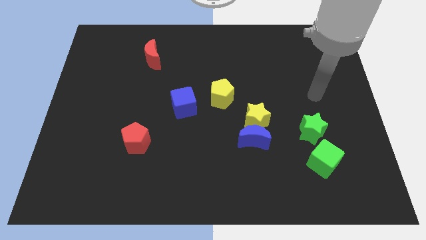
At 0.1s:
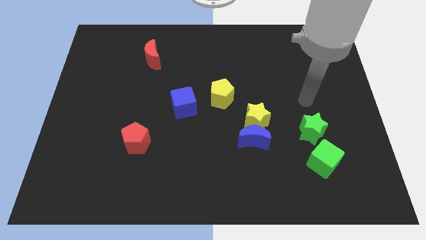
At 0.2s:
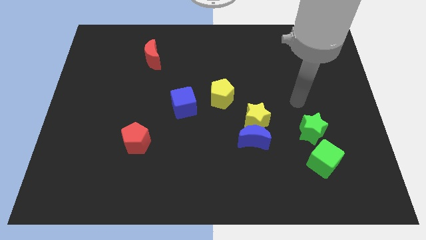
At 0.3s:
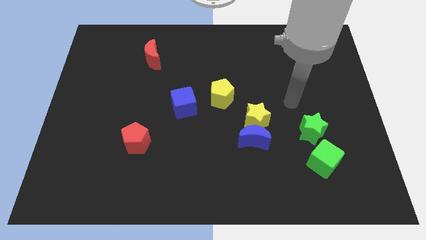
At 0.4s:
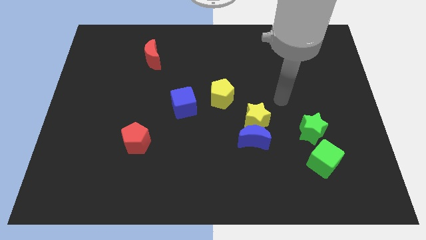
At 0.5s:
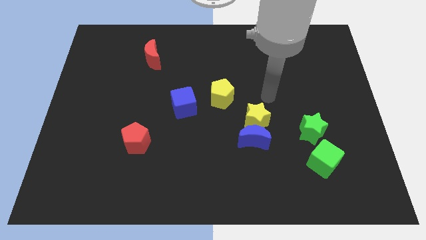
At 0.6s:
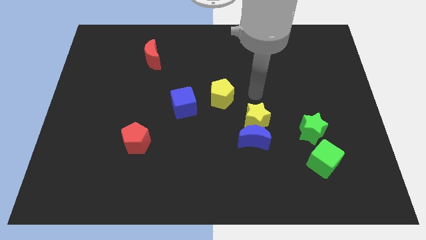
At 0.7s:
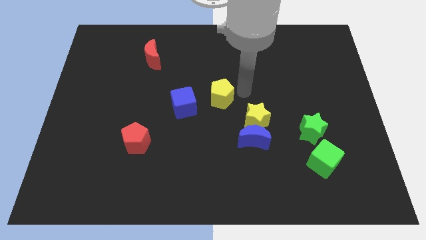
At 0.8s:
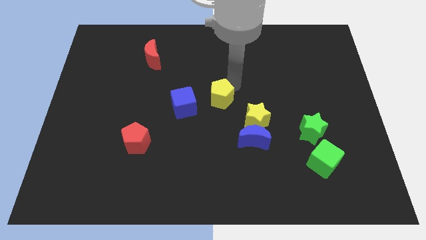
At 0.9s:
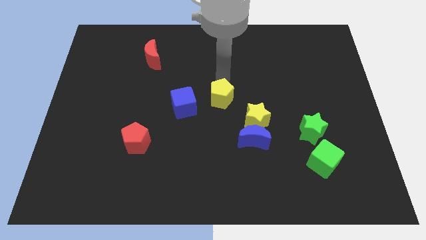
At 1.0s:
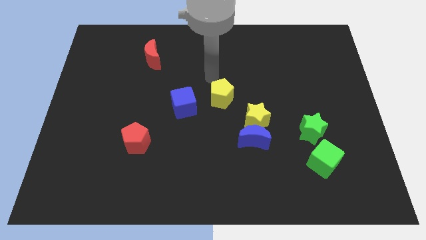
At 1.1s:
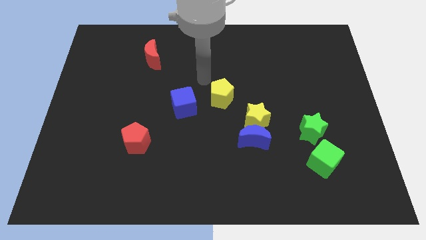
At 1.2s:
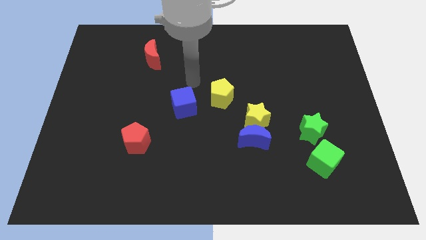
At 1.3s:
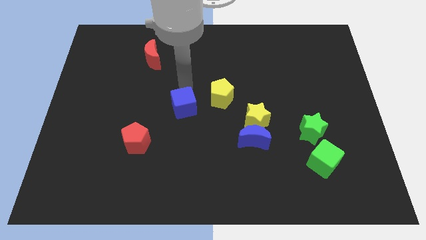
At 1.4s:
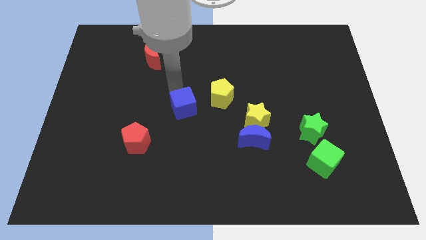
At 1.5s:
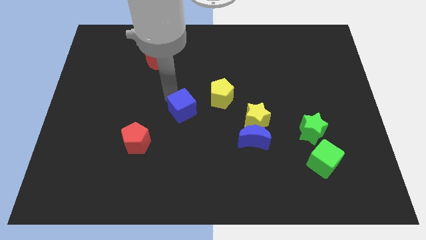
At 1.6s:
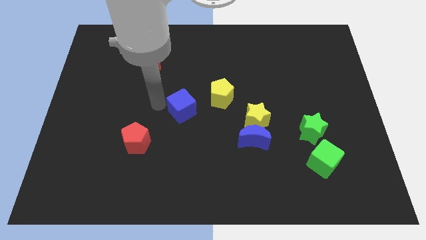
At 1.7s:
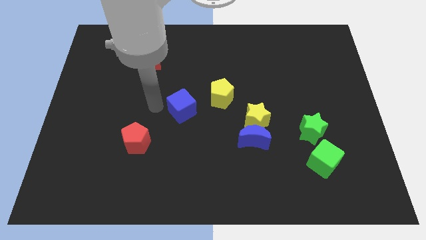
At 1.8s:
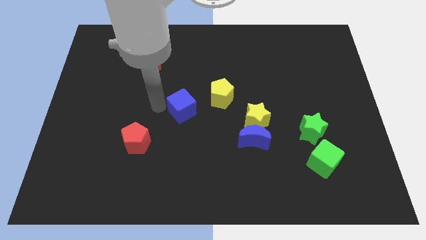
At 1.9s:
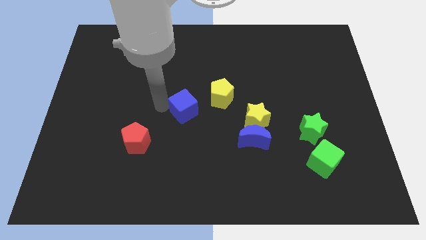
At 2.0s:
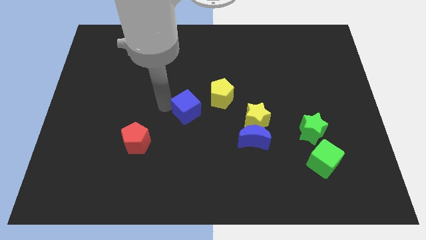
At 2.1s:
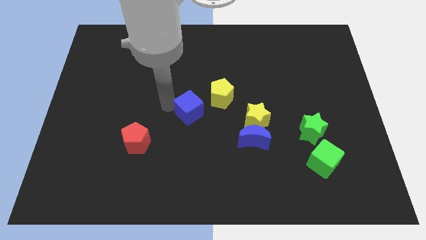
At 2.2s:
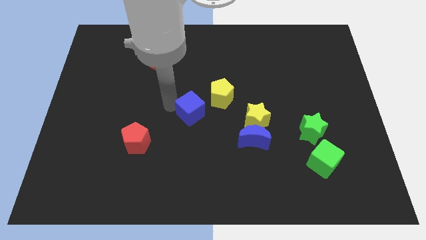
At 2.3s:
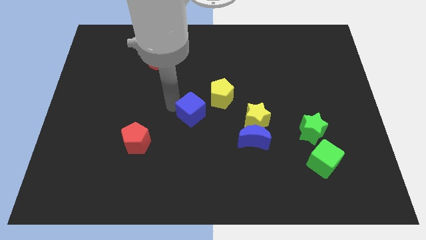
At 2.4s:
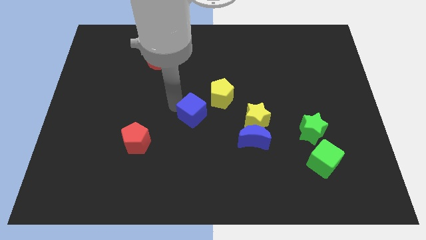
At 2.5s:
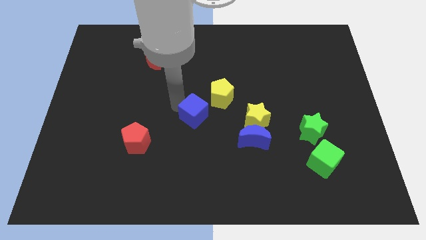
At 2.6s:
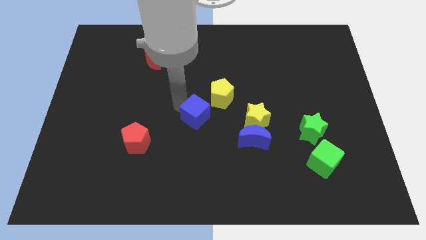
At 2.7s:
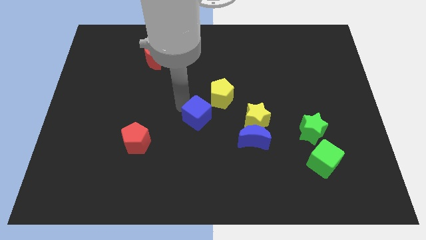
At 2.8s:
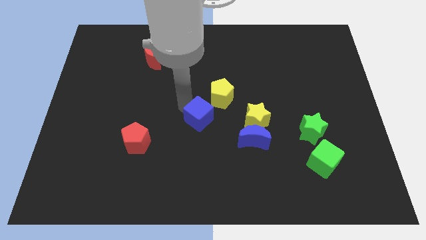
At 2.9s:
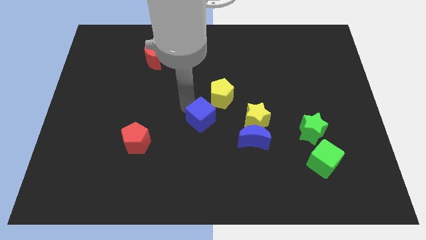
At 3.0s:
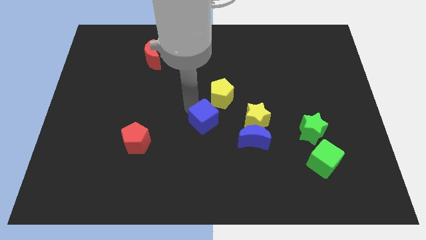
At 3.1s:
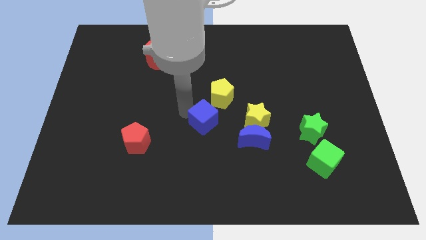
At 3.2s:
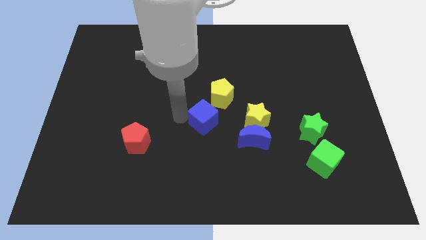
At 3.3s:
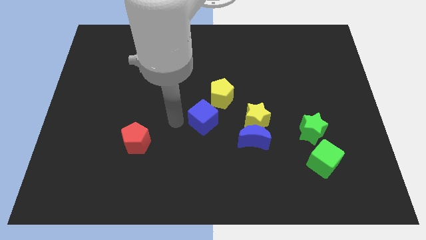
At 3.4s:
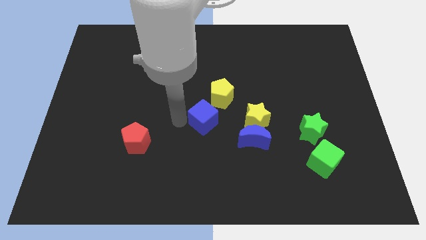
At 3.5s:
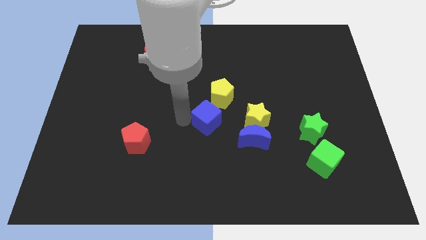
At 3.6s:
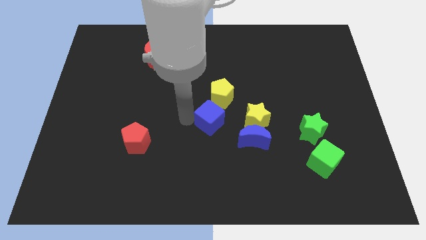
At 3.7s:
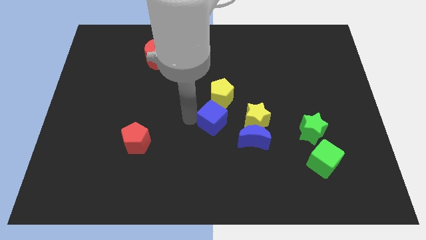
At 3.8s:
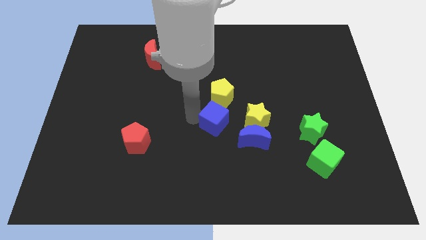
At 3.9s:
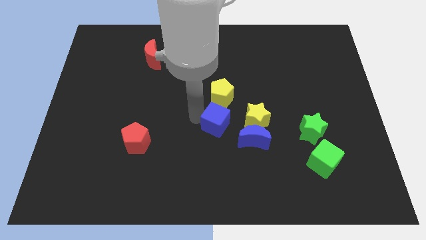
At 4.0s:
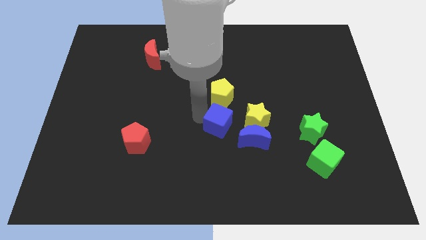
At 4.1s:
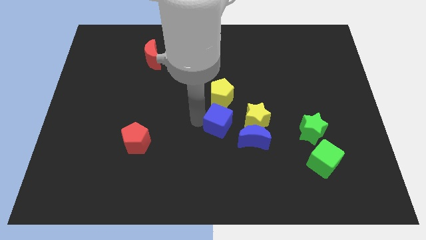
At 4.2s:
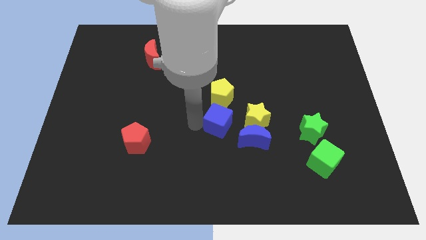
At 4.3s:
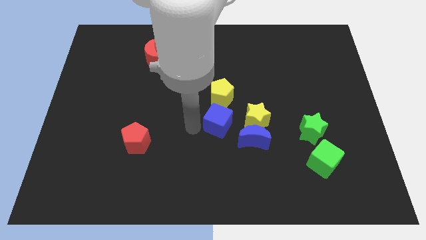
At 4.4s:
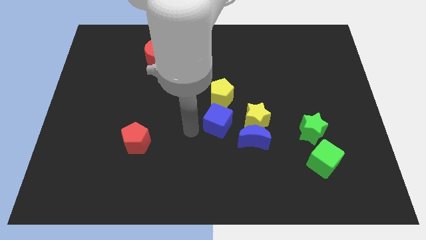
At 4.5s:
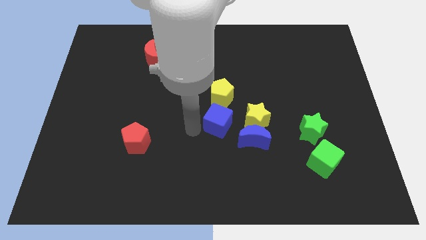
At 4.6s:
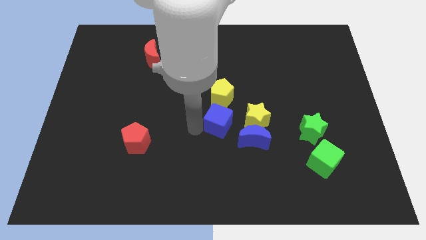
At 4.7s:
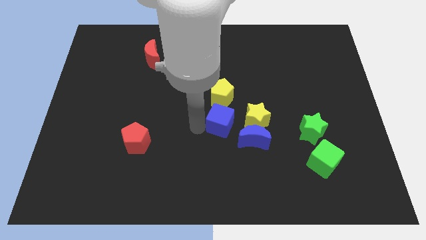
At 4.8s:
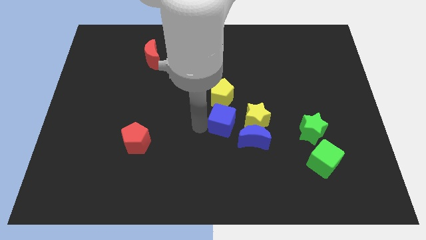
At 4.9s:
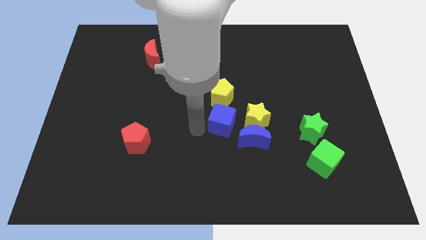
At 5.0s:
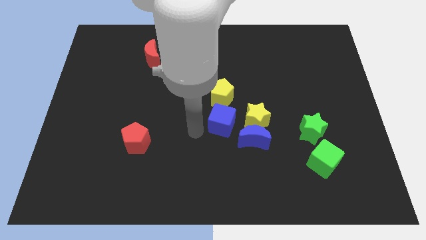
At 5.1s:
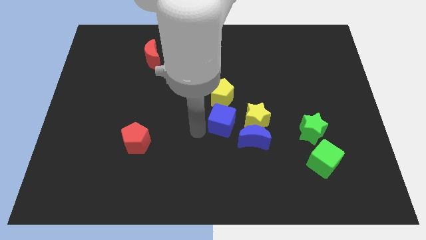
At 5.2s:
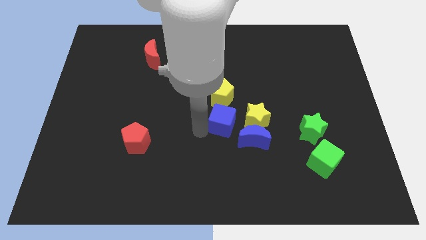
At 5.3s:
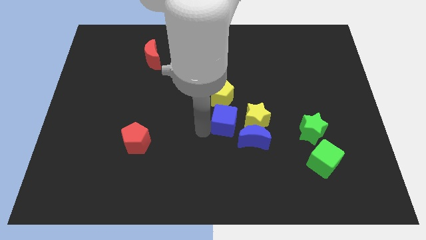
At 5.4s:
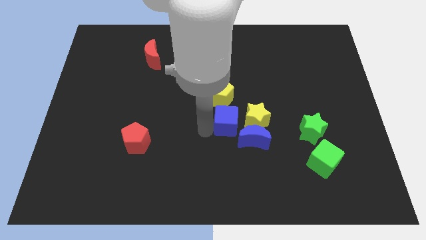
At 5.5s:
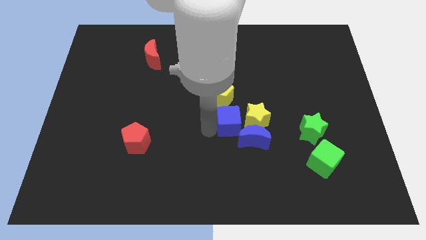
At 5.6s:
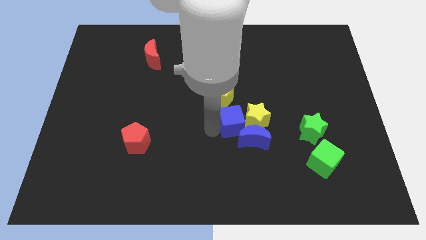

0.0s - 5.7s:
put the blue cube towards the yellow star

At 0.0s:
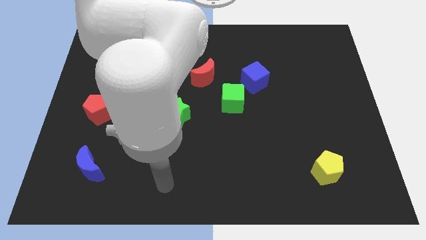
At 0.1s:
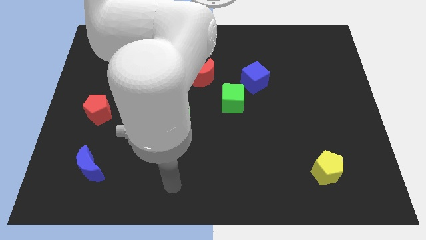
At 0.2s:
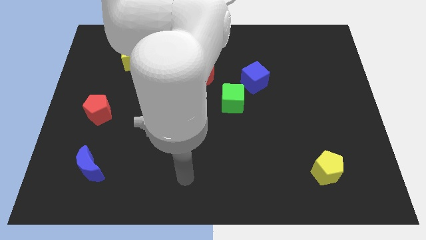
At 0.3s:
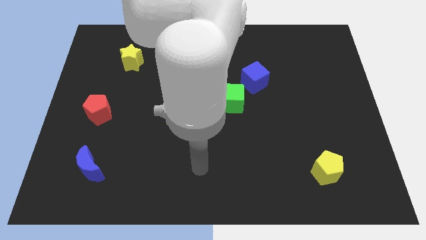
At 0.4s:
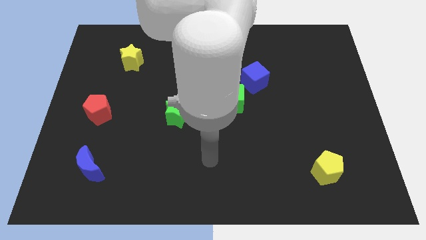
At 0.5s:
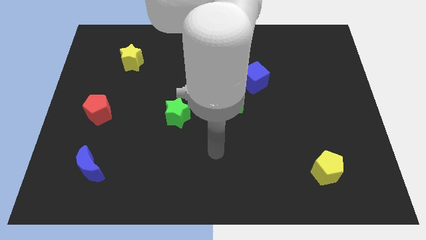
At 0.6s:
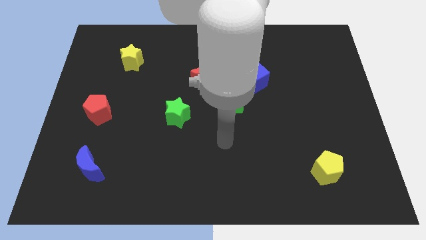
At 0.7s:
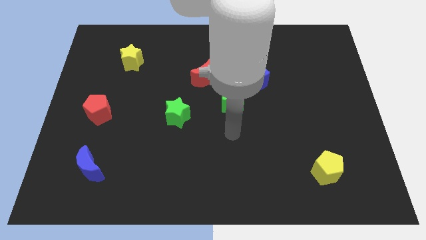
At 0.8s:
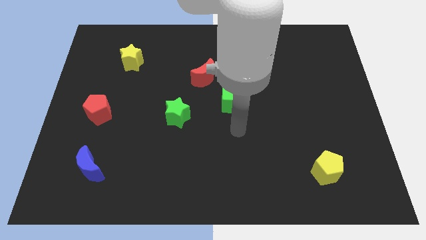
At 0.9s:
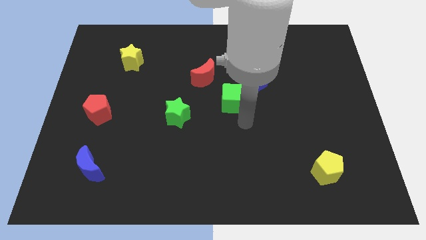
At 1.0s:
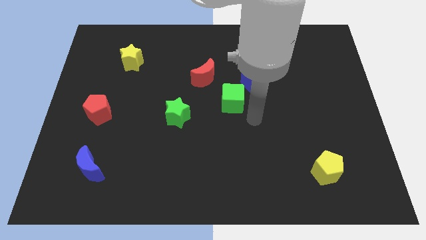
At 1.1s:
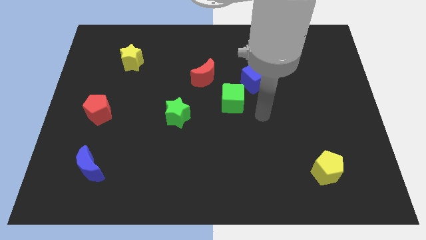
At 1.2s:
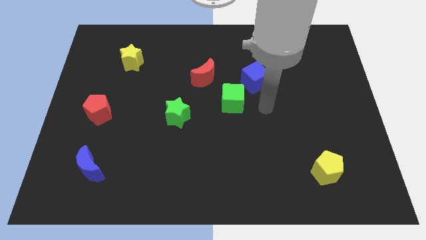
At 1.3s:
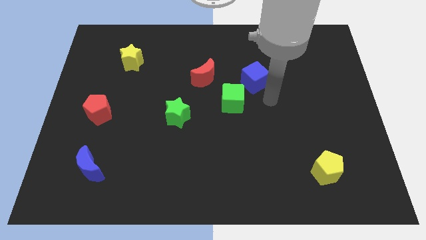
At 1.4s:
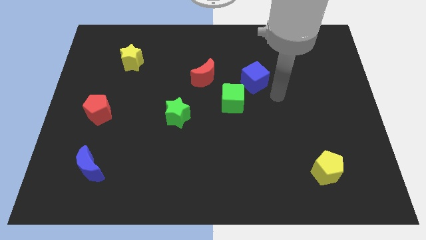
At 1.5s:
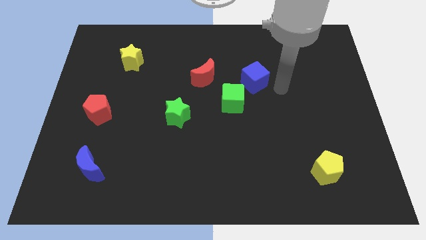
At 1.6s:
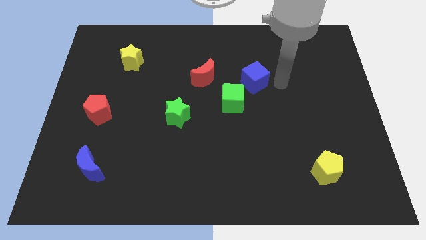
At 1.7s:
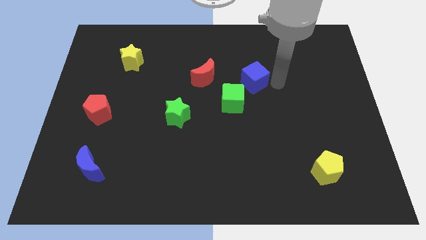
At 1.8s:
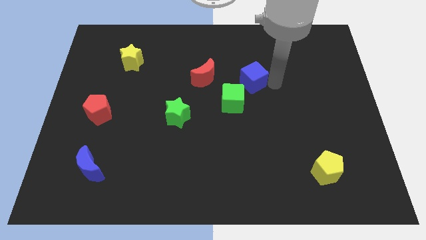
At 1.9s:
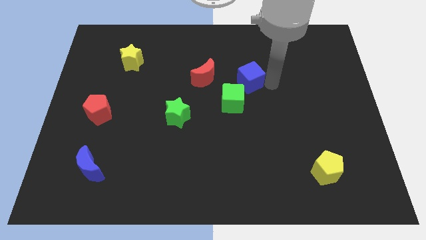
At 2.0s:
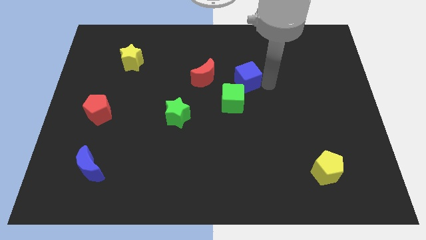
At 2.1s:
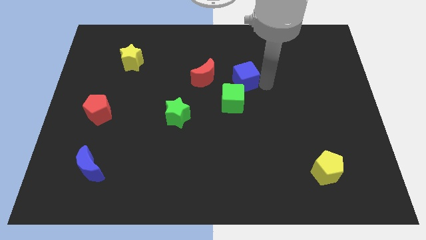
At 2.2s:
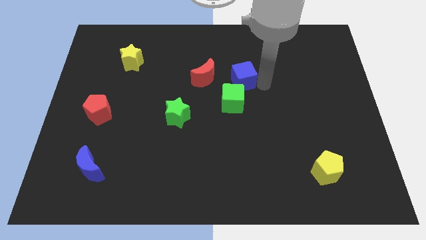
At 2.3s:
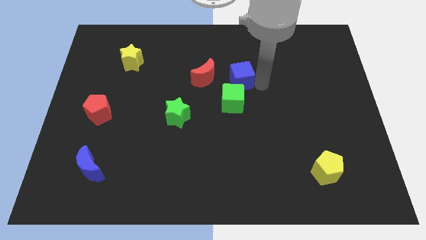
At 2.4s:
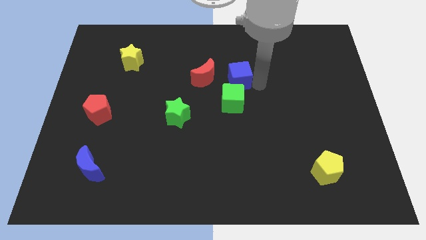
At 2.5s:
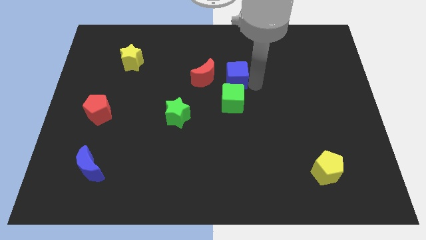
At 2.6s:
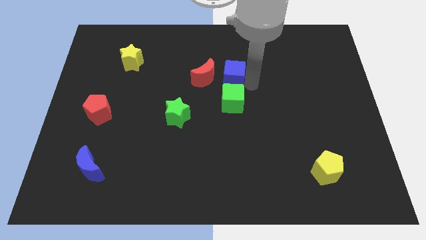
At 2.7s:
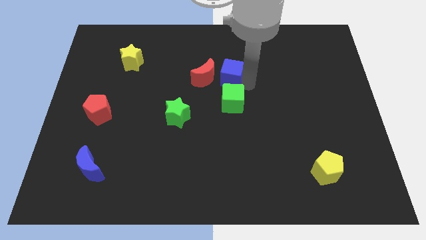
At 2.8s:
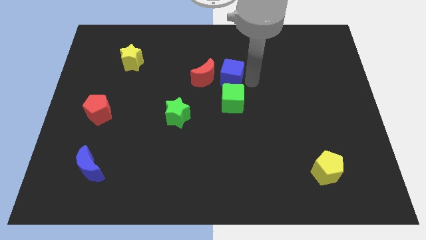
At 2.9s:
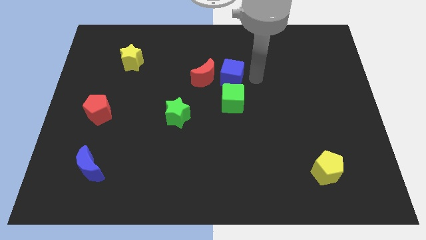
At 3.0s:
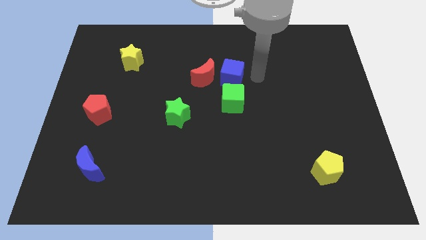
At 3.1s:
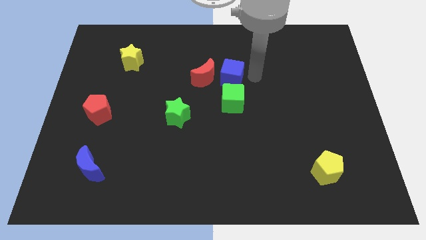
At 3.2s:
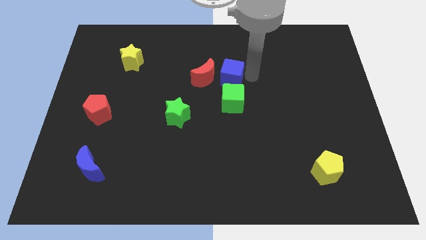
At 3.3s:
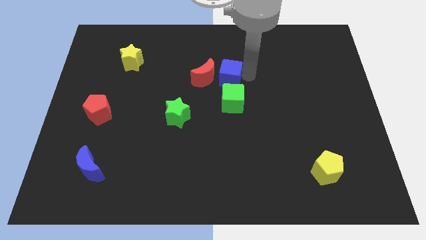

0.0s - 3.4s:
put the blue cube close to the red moon
